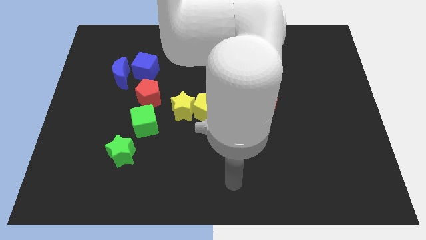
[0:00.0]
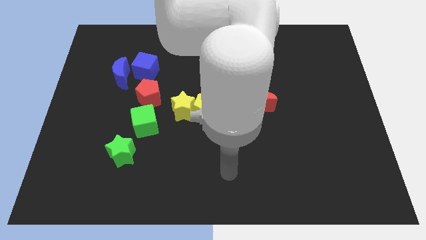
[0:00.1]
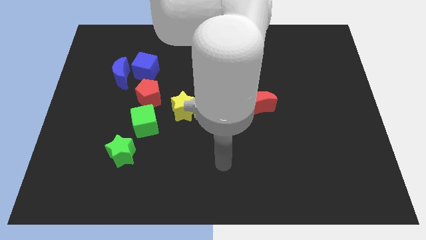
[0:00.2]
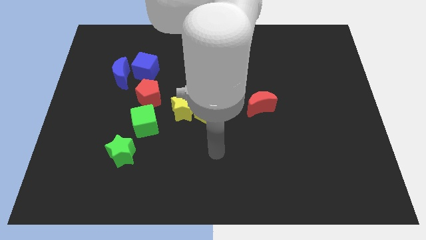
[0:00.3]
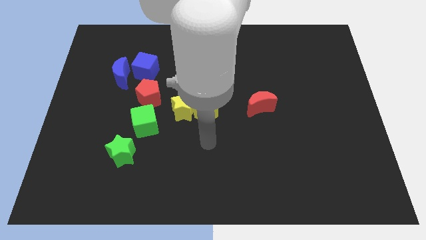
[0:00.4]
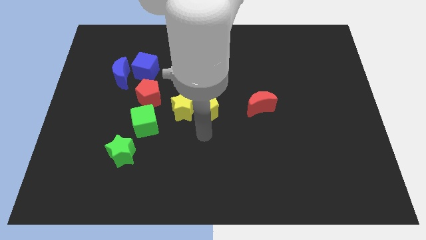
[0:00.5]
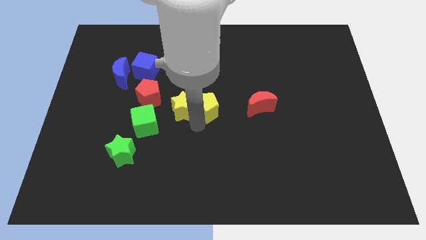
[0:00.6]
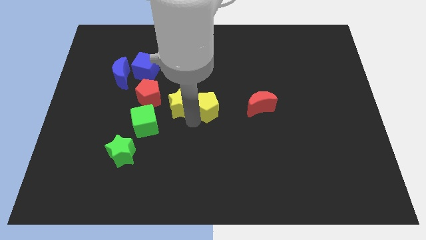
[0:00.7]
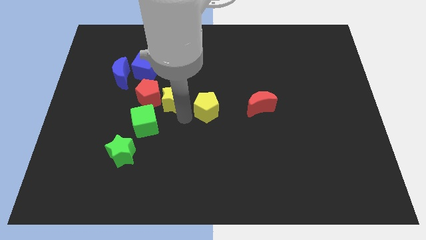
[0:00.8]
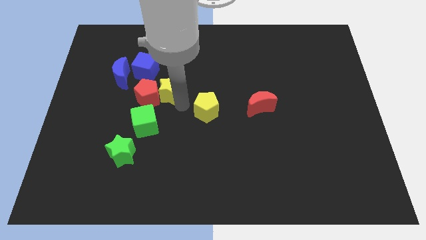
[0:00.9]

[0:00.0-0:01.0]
move the yellow pentagon away from the yellow star

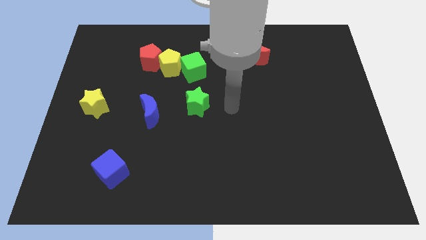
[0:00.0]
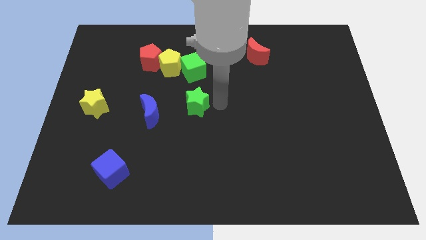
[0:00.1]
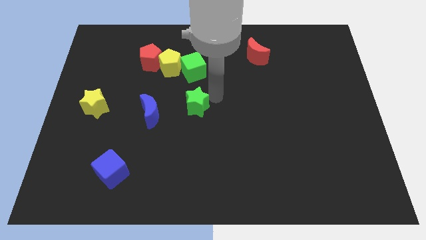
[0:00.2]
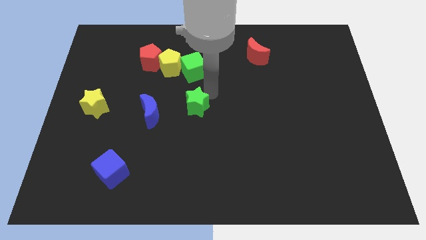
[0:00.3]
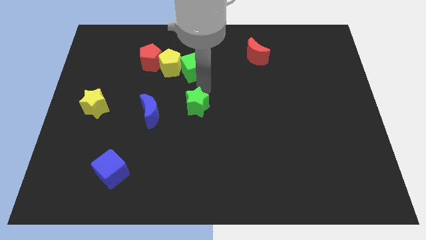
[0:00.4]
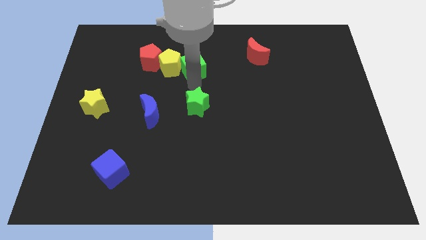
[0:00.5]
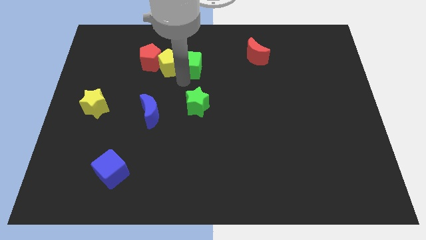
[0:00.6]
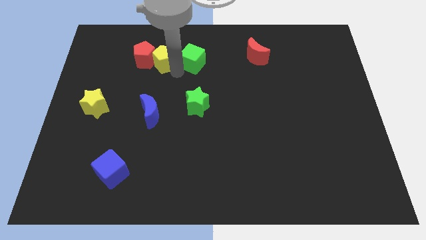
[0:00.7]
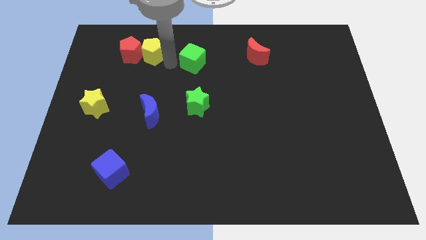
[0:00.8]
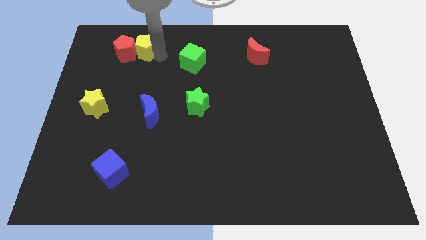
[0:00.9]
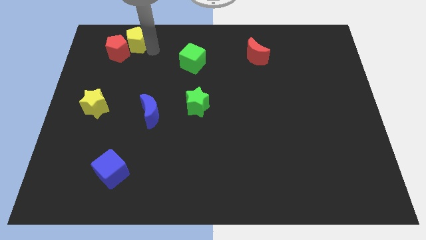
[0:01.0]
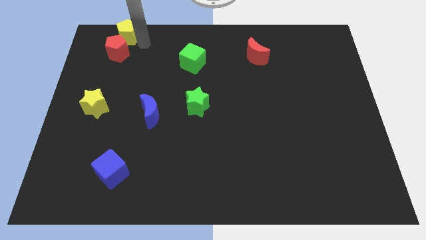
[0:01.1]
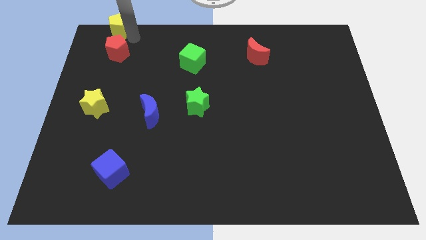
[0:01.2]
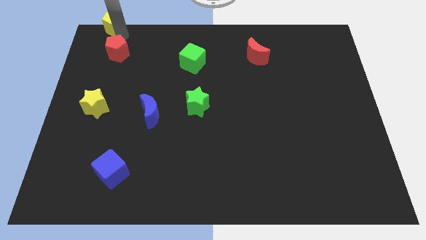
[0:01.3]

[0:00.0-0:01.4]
move the red pentagon away from the yellow pentagon

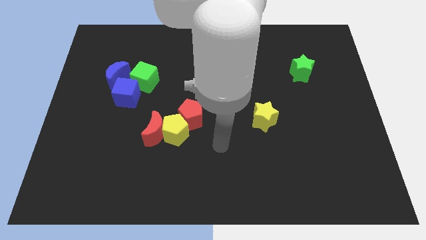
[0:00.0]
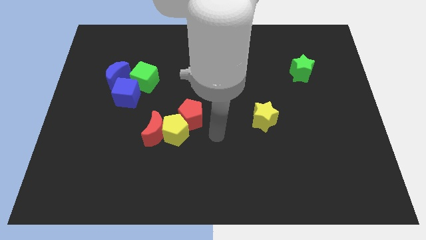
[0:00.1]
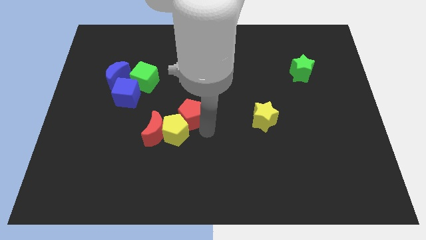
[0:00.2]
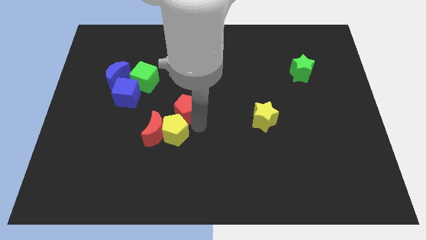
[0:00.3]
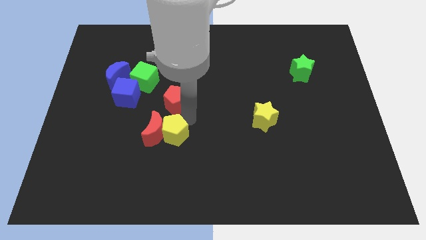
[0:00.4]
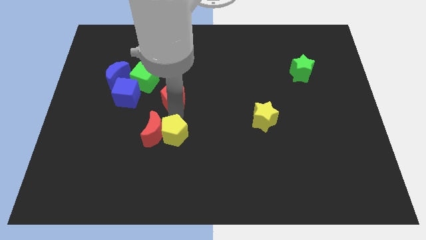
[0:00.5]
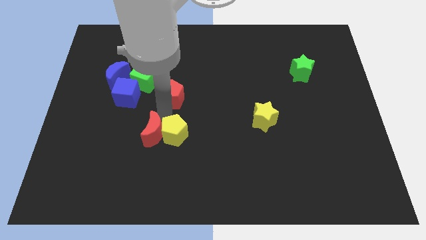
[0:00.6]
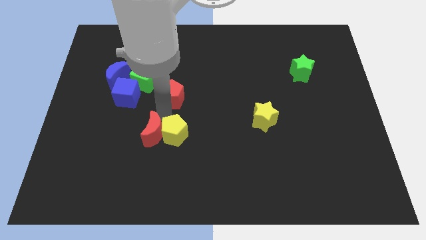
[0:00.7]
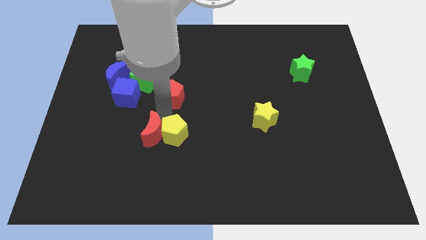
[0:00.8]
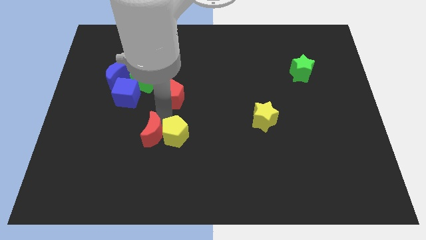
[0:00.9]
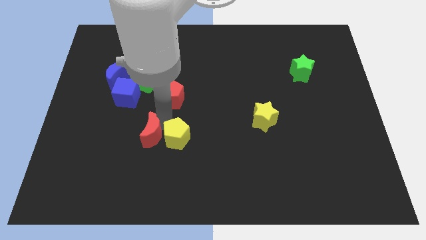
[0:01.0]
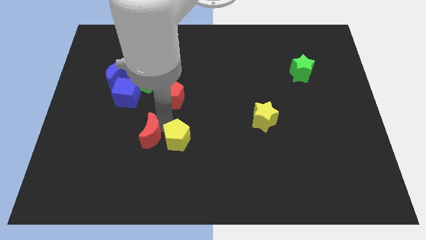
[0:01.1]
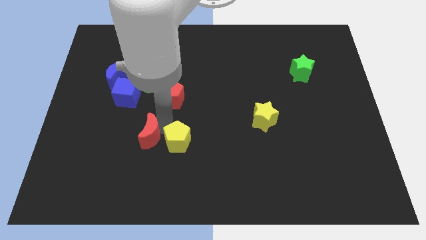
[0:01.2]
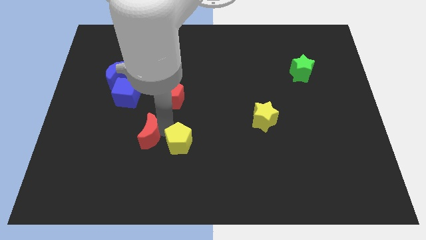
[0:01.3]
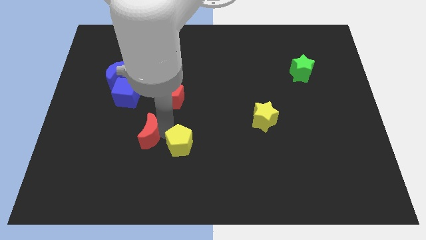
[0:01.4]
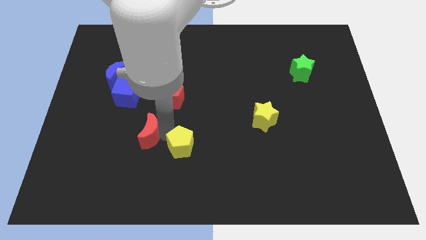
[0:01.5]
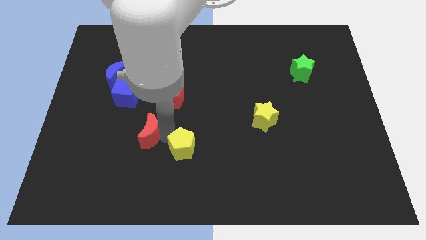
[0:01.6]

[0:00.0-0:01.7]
move the yellow pentagon away from the red moon and red pentagon

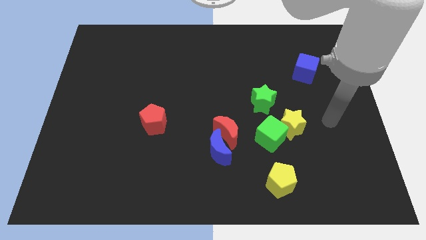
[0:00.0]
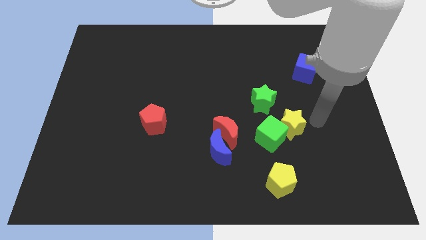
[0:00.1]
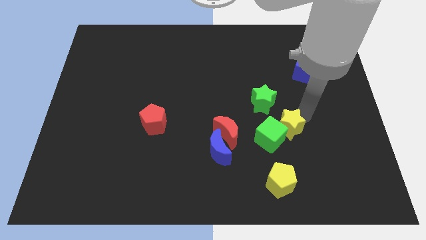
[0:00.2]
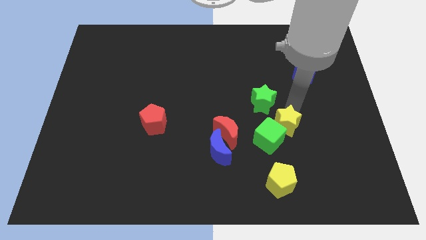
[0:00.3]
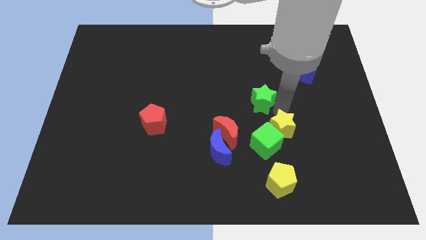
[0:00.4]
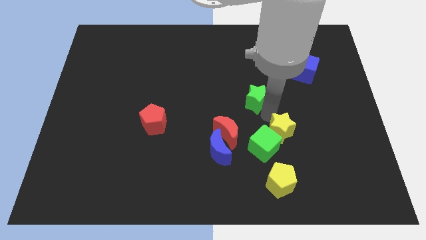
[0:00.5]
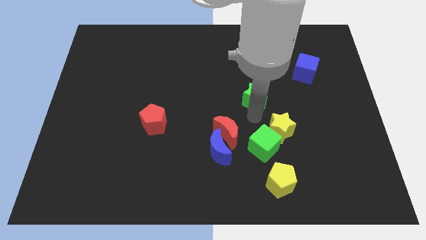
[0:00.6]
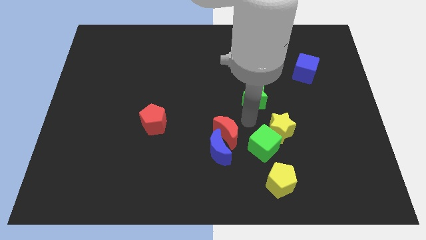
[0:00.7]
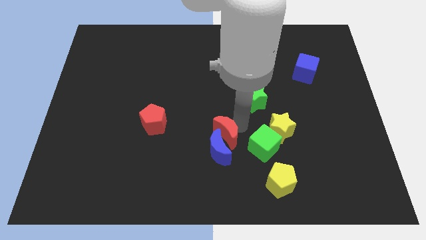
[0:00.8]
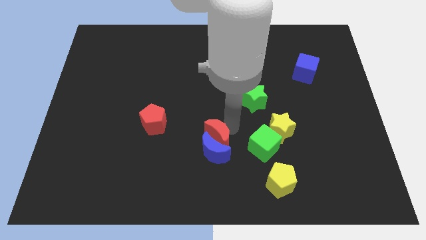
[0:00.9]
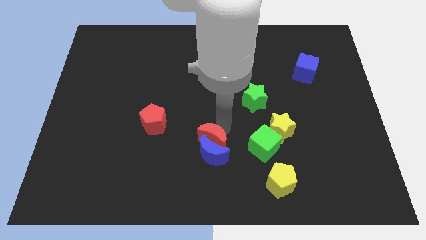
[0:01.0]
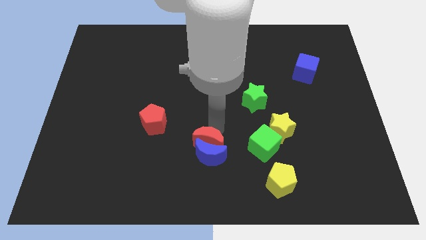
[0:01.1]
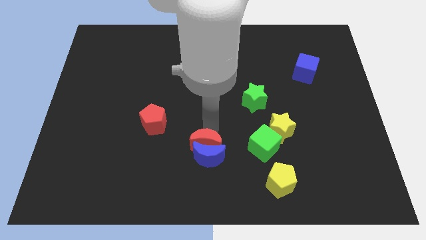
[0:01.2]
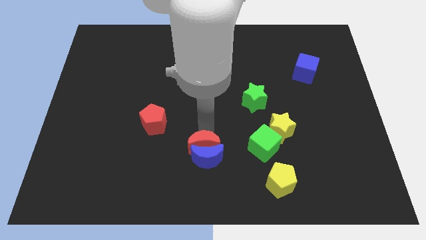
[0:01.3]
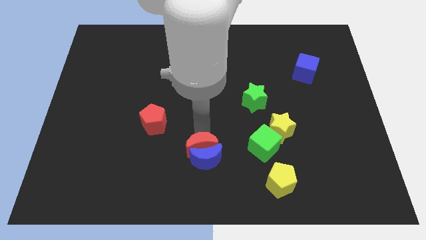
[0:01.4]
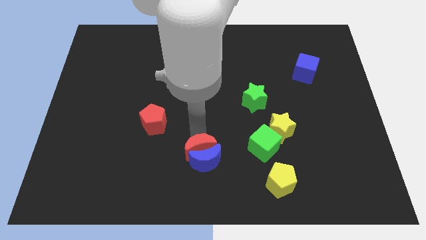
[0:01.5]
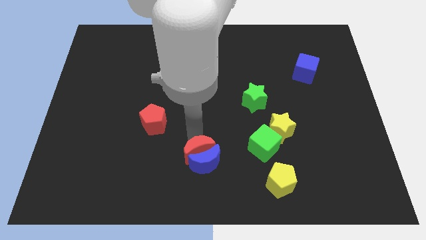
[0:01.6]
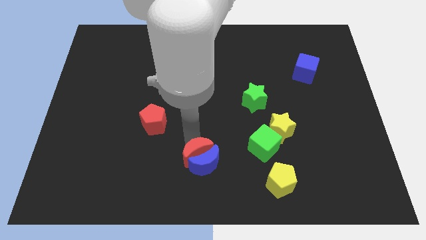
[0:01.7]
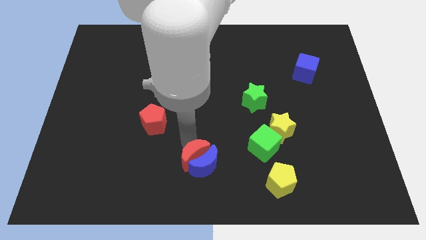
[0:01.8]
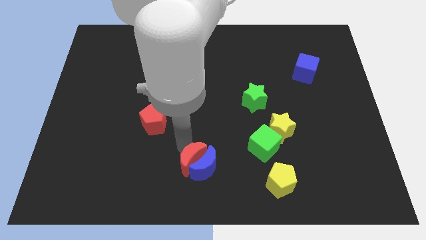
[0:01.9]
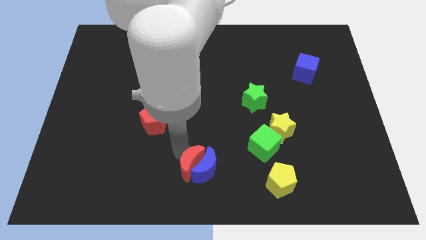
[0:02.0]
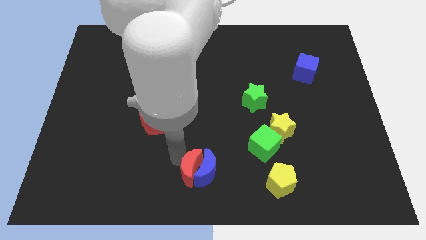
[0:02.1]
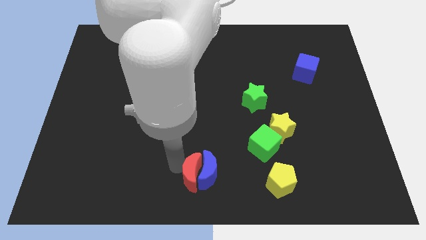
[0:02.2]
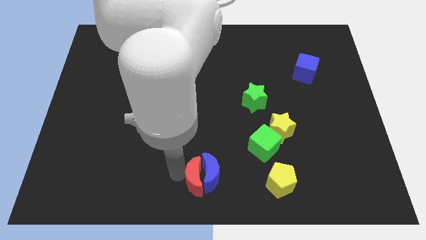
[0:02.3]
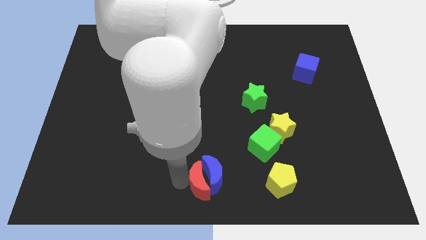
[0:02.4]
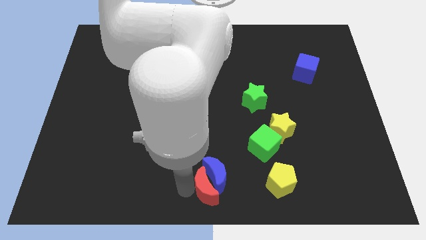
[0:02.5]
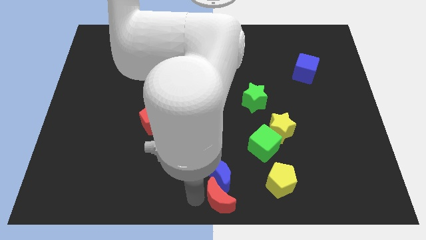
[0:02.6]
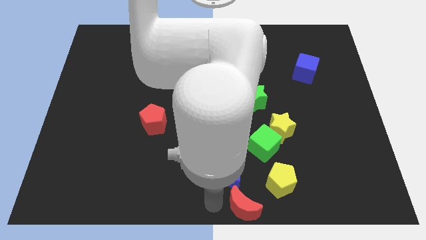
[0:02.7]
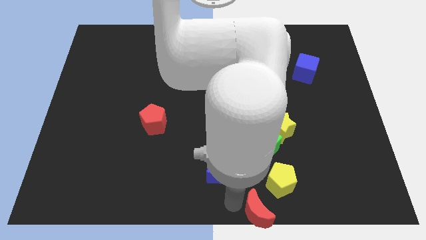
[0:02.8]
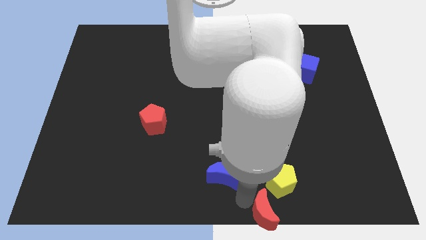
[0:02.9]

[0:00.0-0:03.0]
pull the blue moon apart from the red moon

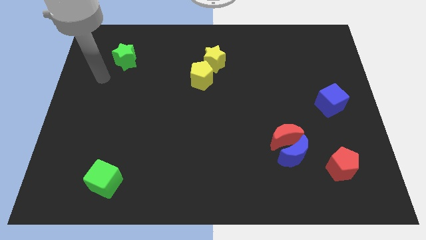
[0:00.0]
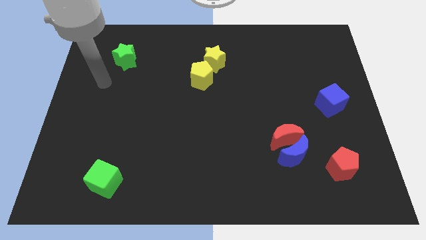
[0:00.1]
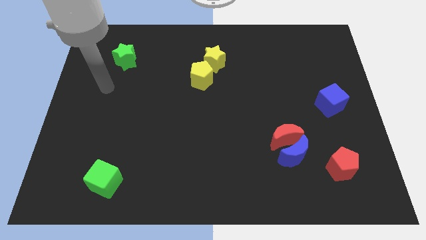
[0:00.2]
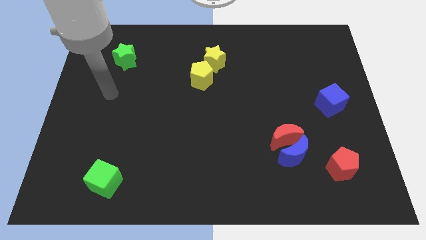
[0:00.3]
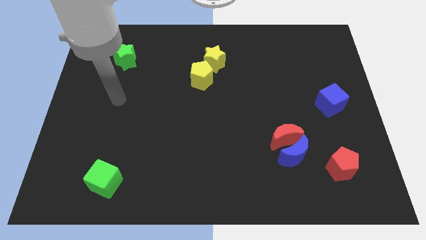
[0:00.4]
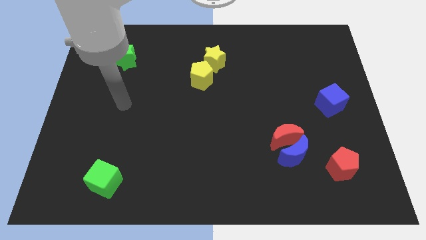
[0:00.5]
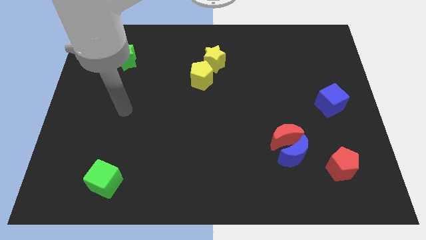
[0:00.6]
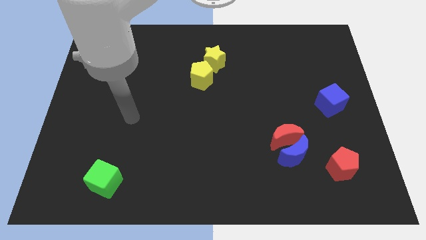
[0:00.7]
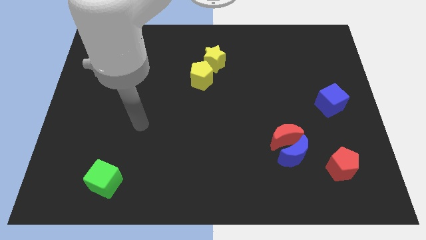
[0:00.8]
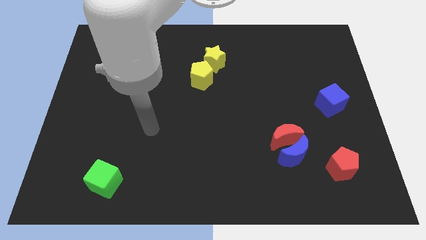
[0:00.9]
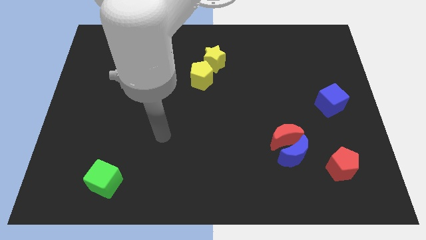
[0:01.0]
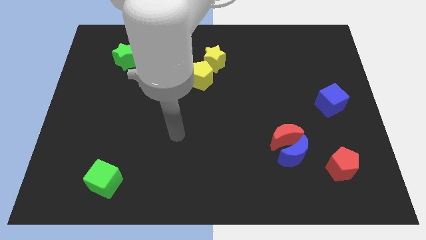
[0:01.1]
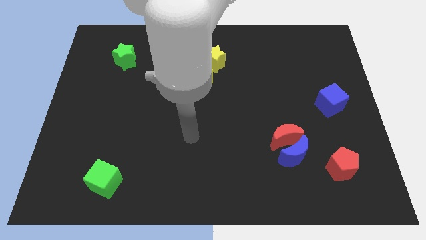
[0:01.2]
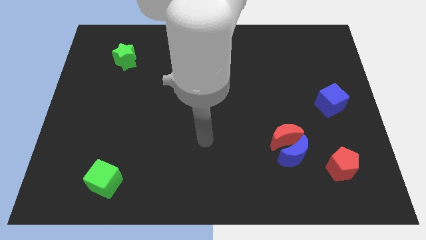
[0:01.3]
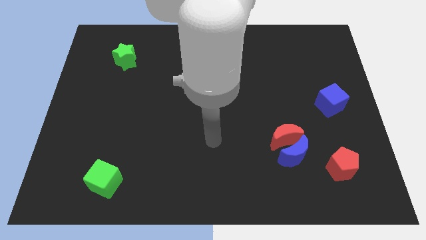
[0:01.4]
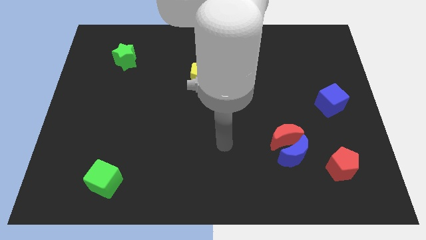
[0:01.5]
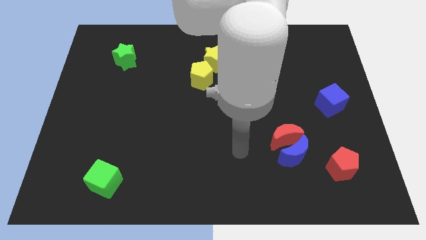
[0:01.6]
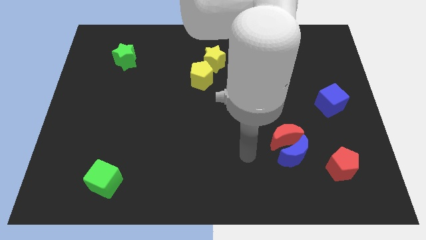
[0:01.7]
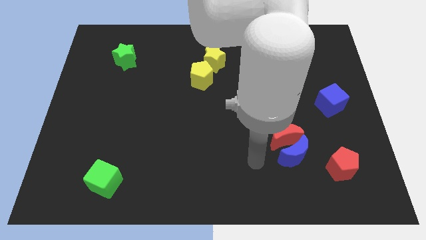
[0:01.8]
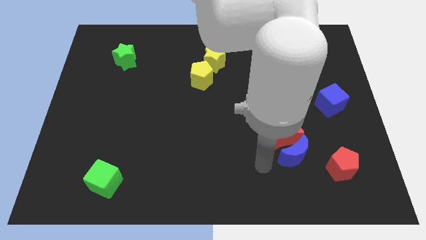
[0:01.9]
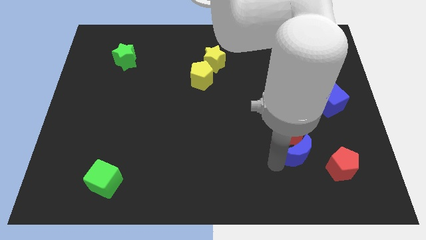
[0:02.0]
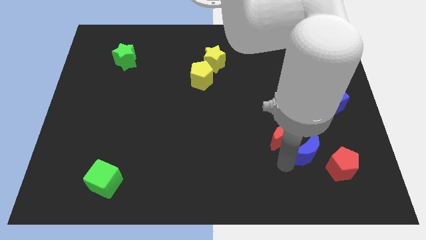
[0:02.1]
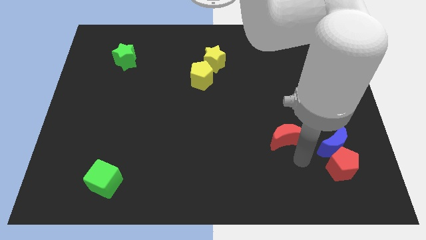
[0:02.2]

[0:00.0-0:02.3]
separate the red moon from the blue moon
